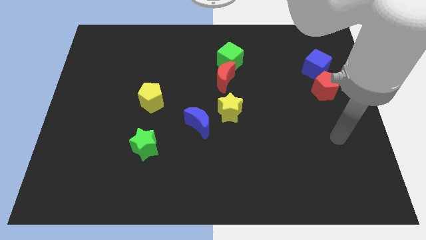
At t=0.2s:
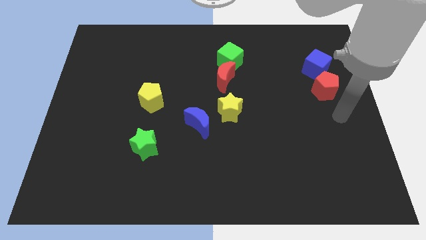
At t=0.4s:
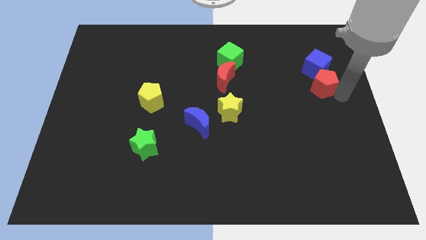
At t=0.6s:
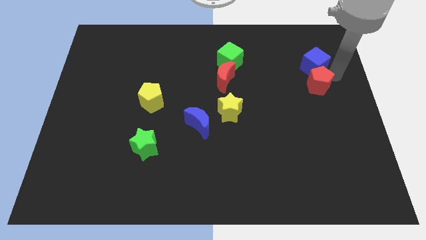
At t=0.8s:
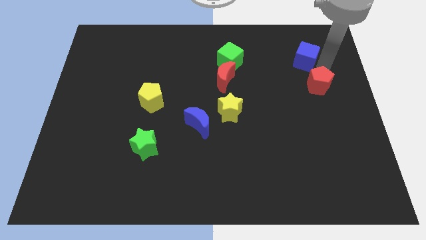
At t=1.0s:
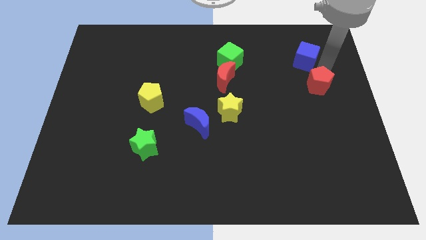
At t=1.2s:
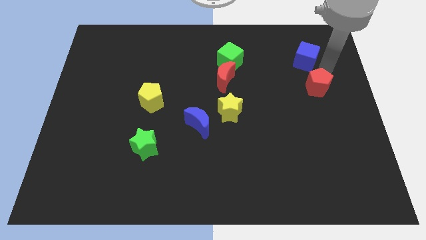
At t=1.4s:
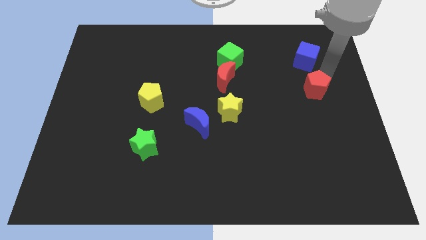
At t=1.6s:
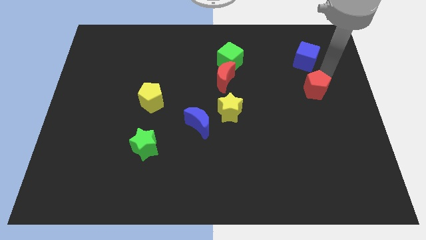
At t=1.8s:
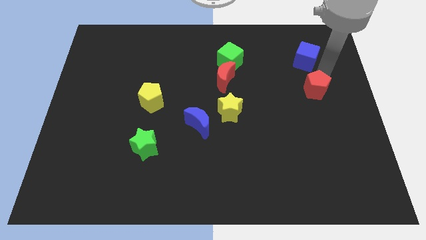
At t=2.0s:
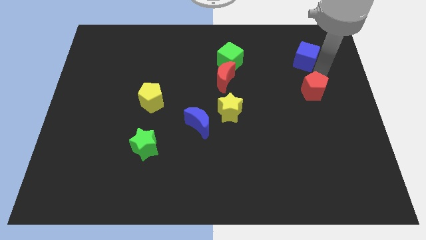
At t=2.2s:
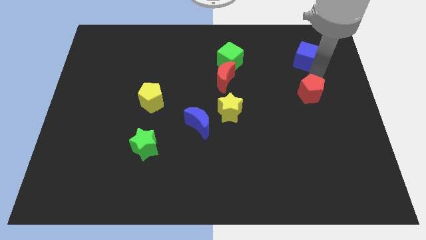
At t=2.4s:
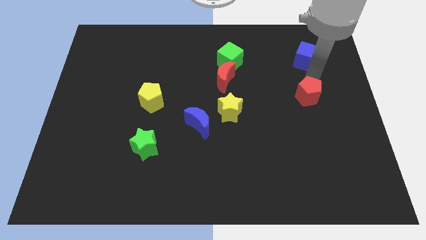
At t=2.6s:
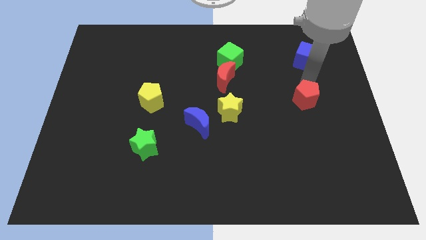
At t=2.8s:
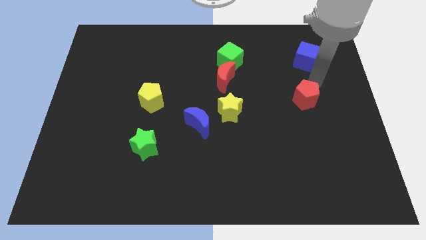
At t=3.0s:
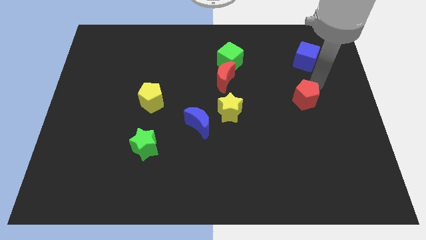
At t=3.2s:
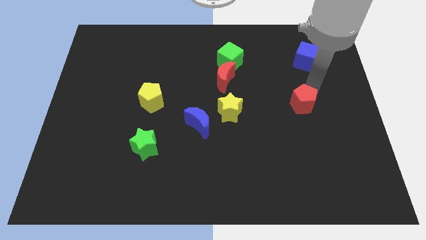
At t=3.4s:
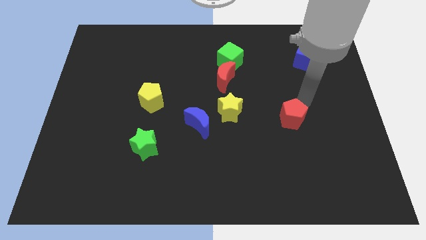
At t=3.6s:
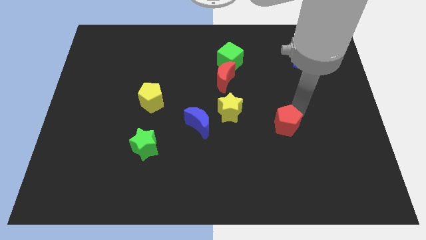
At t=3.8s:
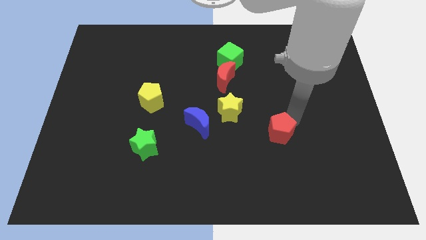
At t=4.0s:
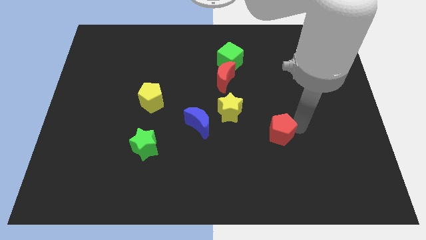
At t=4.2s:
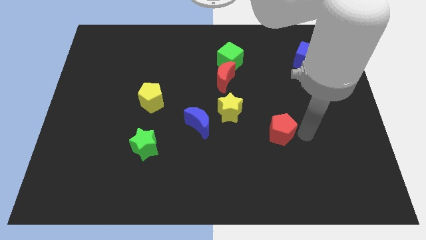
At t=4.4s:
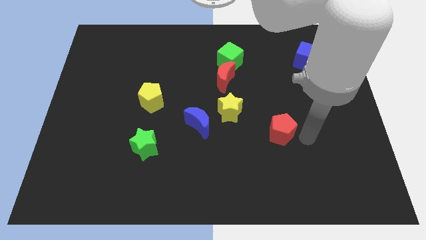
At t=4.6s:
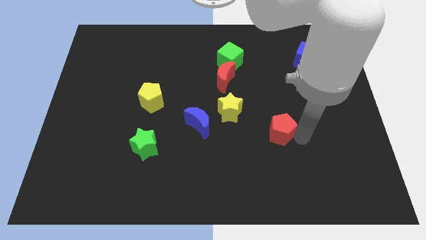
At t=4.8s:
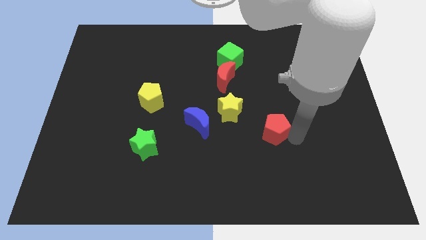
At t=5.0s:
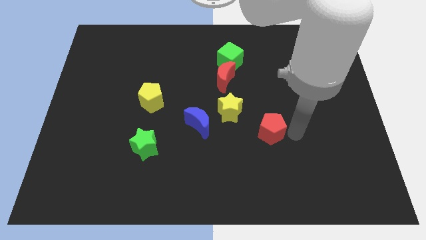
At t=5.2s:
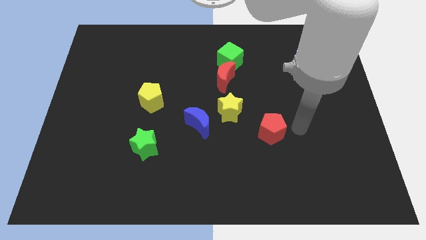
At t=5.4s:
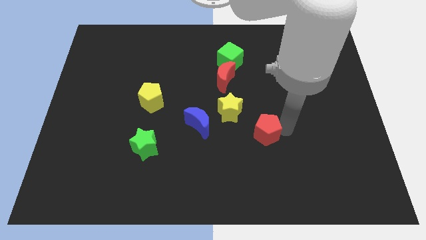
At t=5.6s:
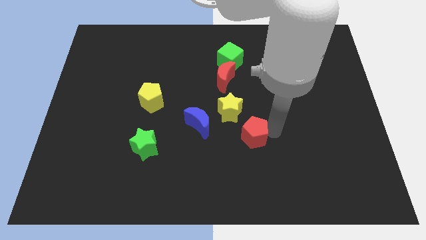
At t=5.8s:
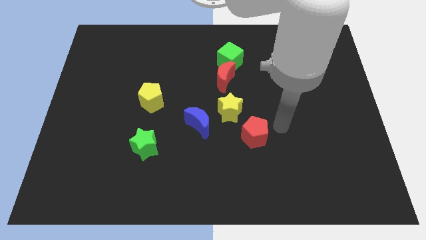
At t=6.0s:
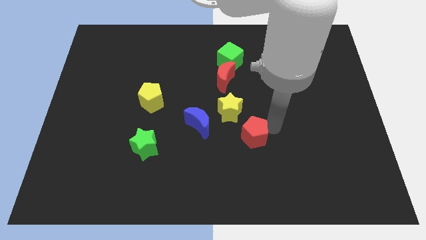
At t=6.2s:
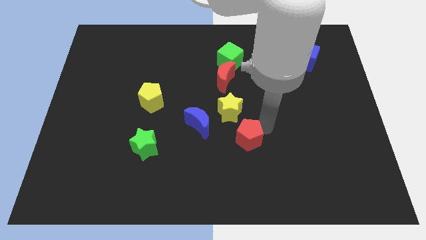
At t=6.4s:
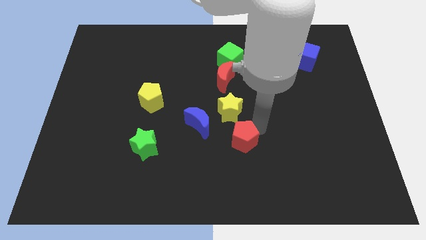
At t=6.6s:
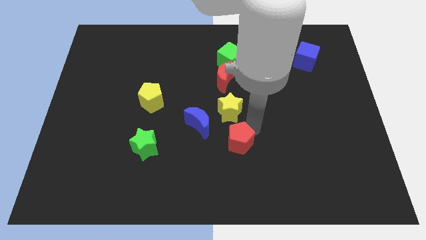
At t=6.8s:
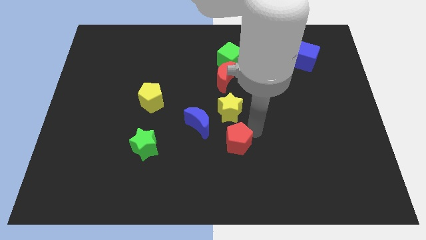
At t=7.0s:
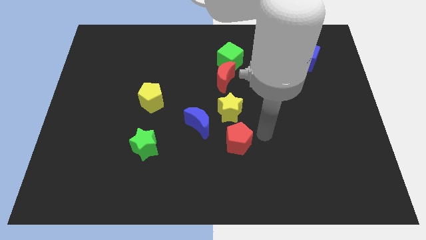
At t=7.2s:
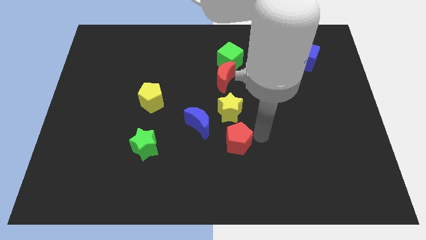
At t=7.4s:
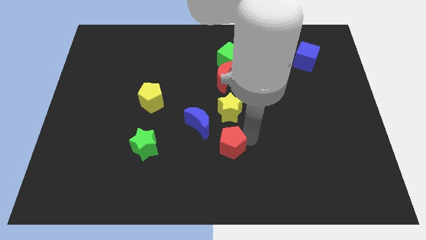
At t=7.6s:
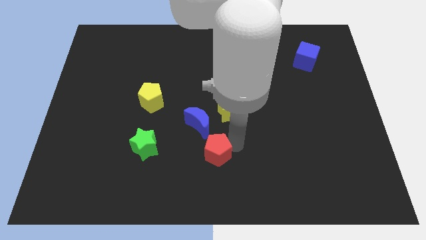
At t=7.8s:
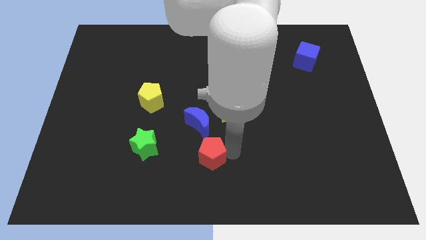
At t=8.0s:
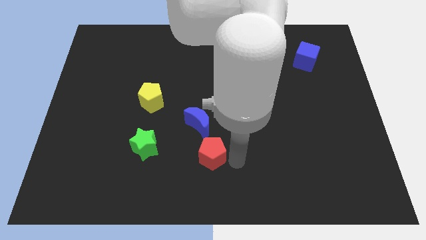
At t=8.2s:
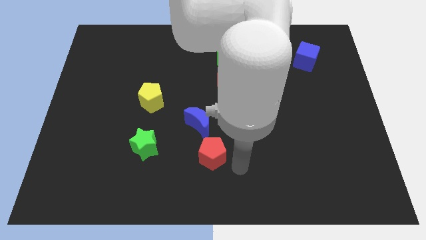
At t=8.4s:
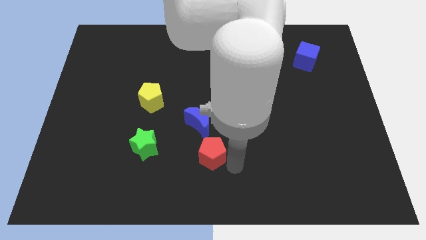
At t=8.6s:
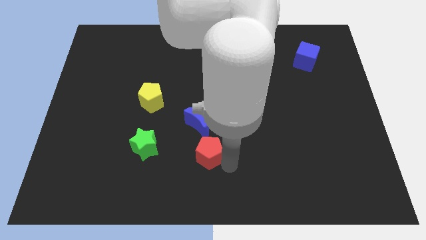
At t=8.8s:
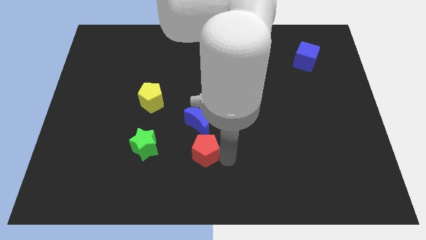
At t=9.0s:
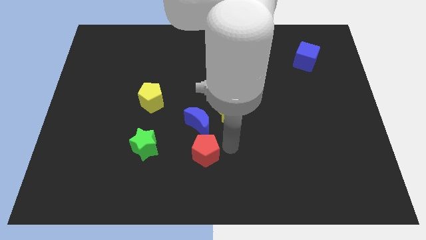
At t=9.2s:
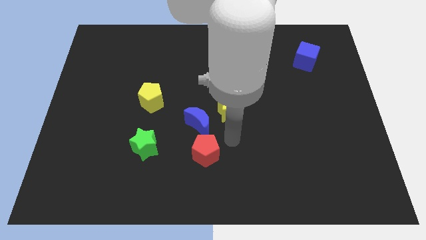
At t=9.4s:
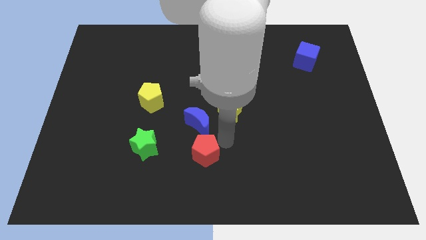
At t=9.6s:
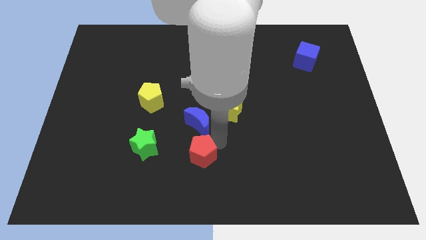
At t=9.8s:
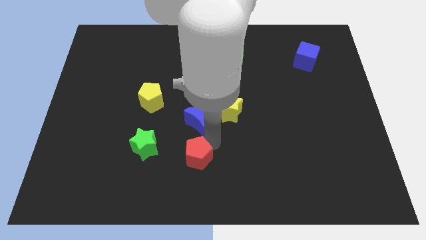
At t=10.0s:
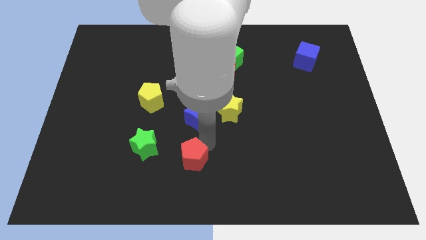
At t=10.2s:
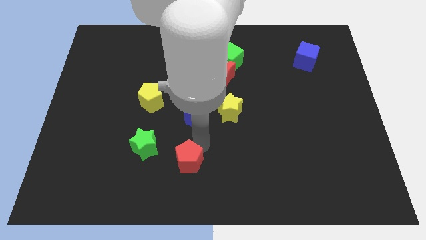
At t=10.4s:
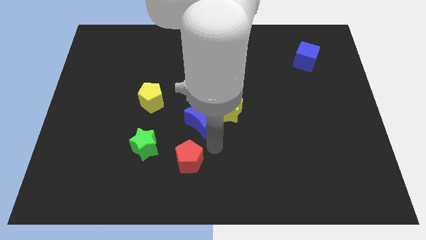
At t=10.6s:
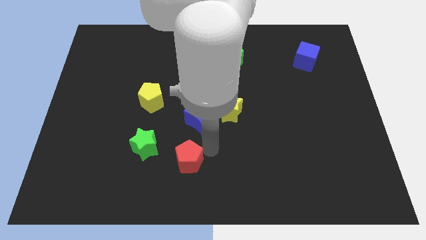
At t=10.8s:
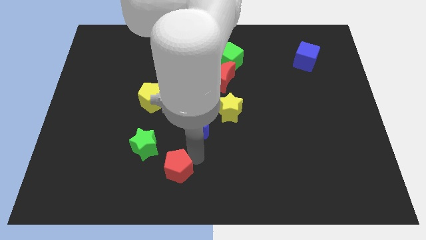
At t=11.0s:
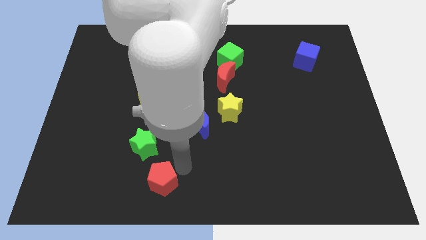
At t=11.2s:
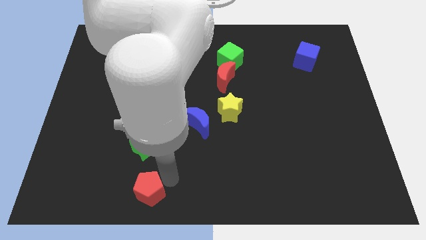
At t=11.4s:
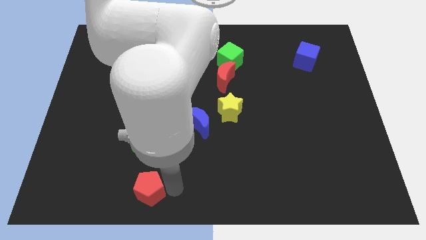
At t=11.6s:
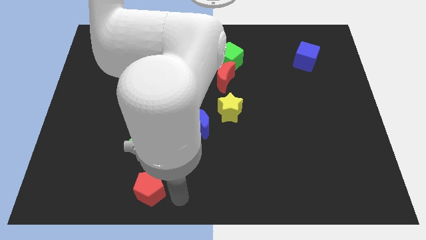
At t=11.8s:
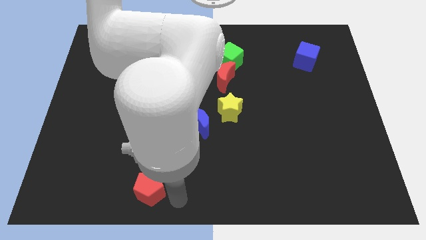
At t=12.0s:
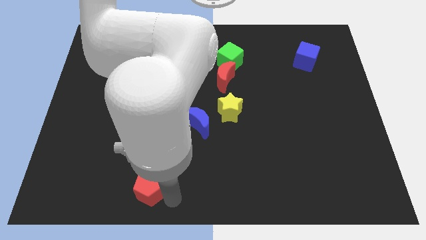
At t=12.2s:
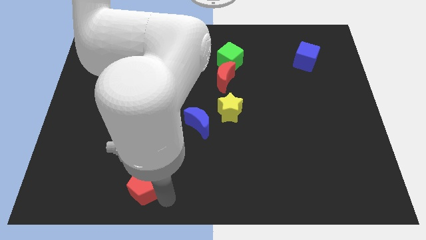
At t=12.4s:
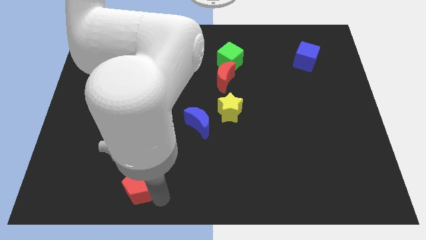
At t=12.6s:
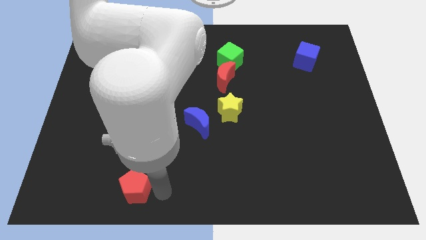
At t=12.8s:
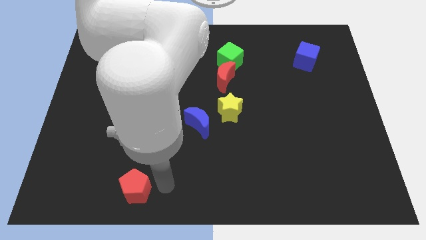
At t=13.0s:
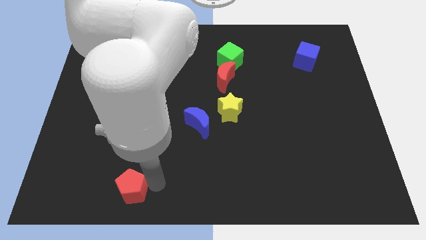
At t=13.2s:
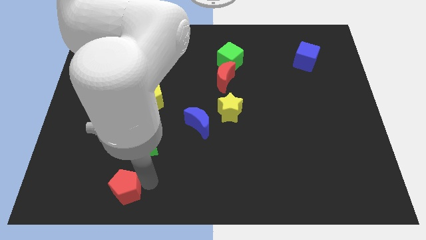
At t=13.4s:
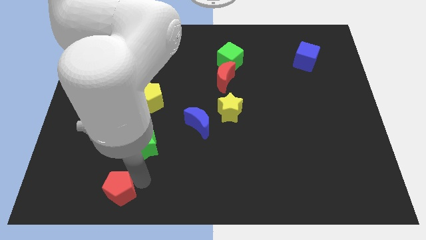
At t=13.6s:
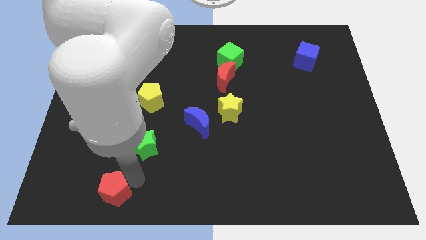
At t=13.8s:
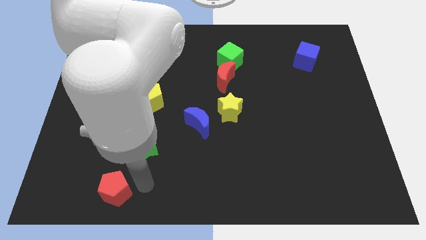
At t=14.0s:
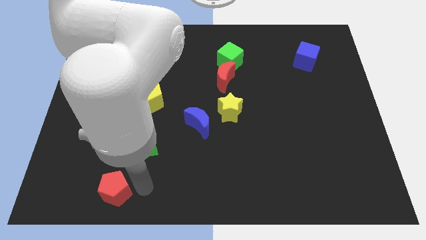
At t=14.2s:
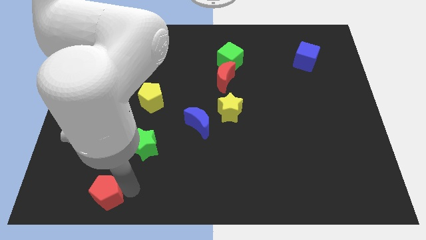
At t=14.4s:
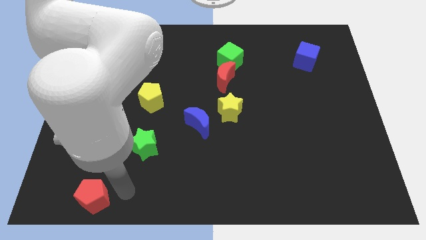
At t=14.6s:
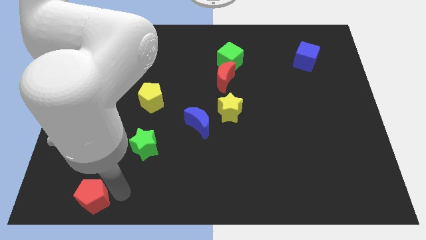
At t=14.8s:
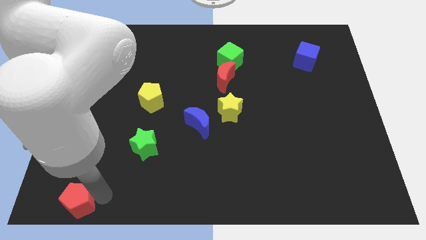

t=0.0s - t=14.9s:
move the red pentagon to the bottom left of the board
